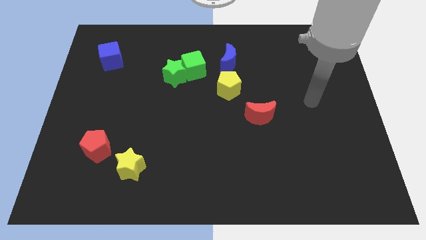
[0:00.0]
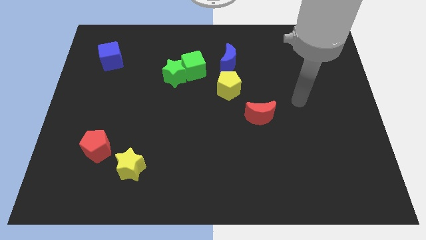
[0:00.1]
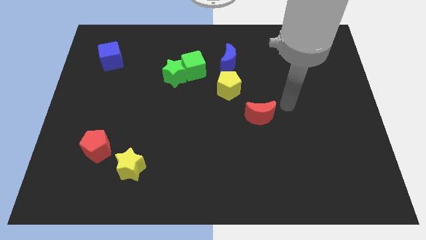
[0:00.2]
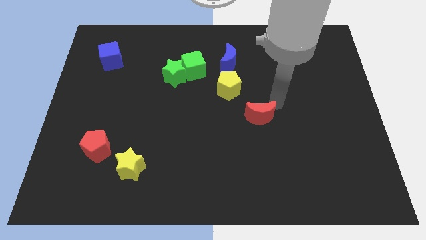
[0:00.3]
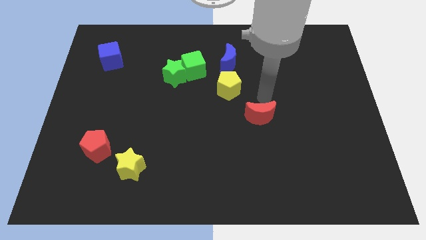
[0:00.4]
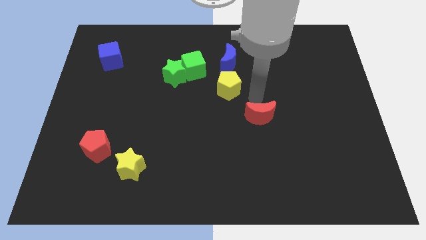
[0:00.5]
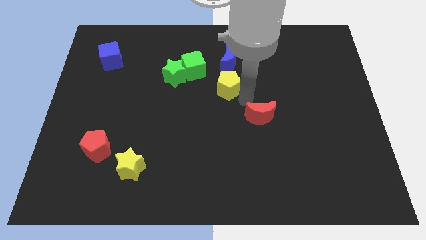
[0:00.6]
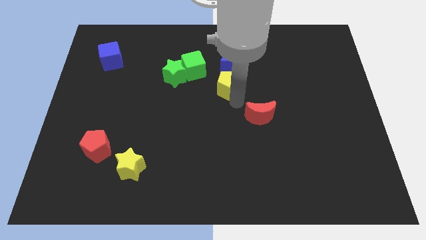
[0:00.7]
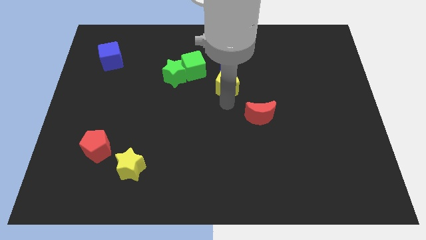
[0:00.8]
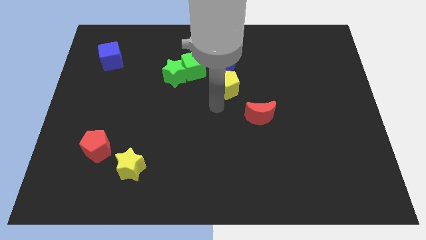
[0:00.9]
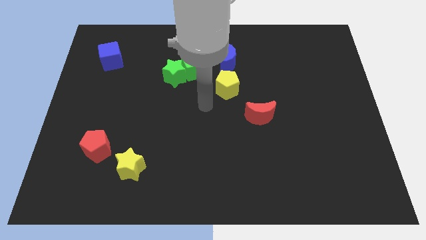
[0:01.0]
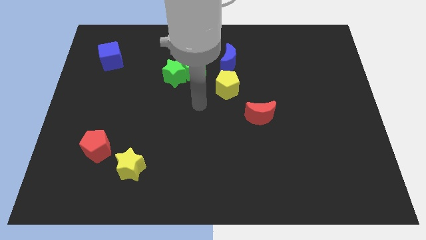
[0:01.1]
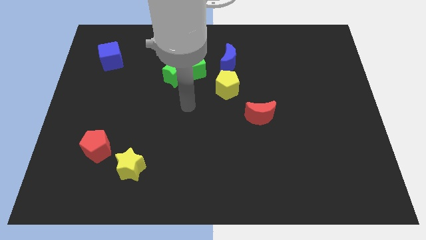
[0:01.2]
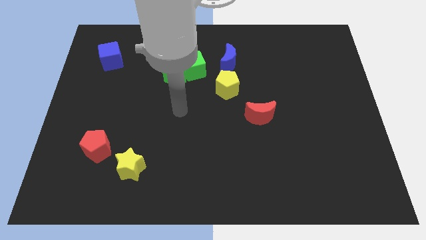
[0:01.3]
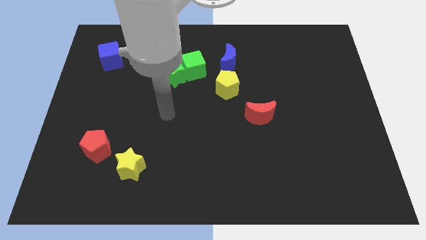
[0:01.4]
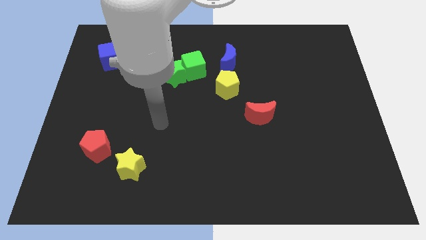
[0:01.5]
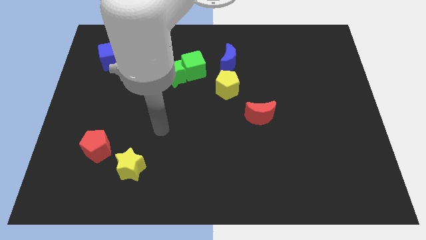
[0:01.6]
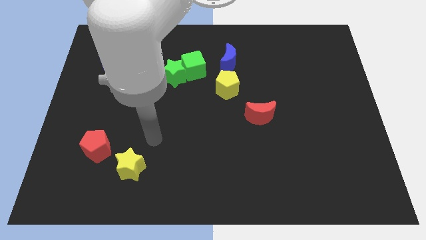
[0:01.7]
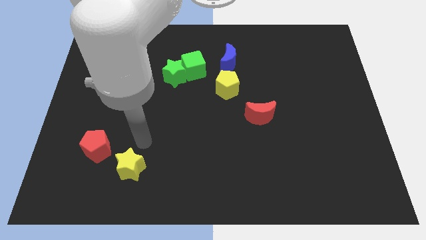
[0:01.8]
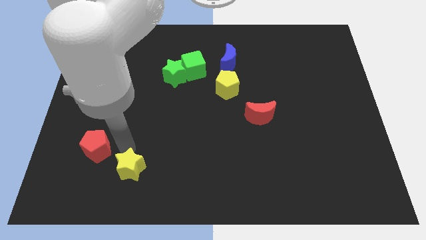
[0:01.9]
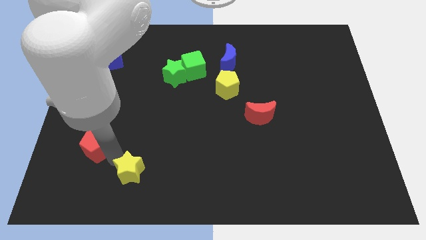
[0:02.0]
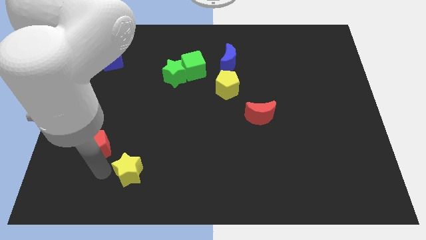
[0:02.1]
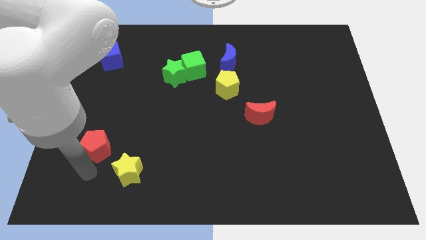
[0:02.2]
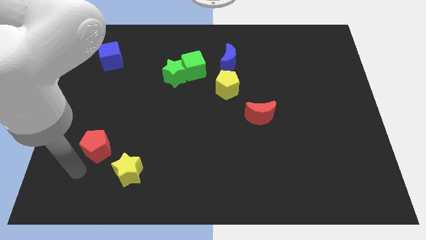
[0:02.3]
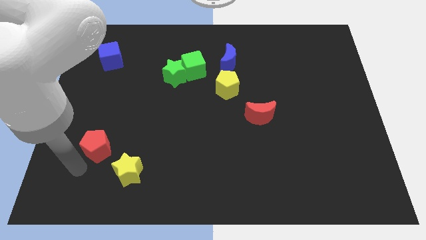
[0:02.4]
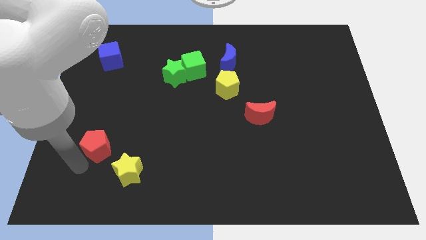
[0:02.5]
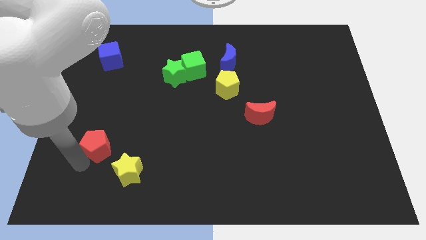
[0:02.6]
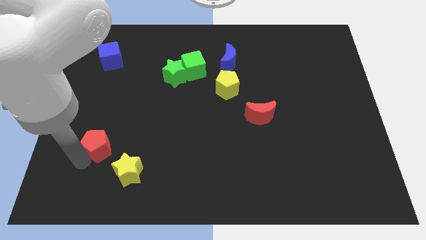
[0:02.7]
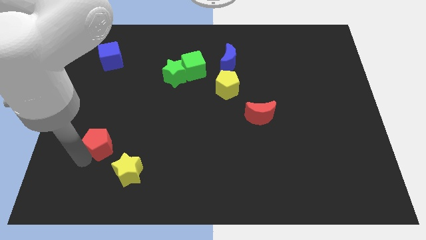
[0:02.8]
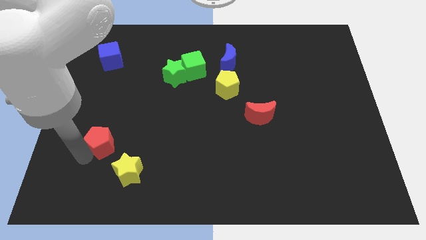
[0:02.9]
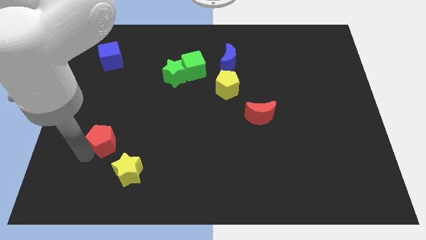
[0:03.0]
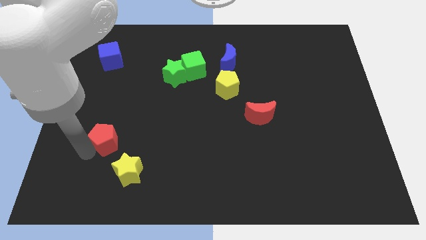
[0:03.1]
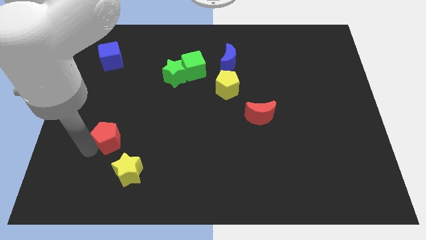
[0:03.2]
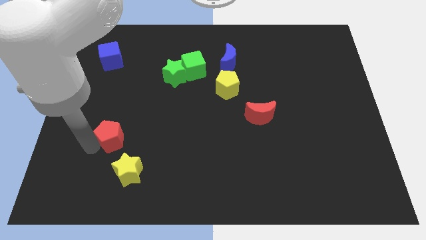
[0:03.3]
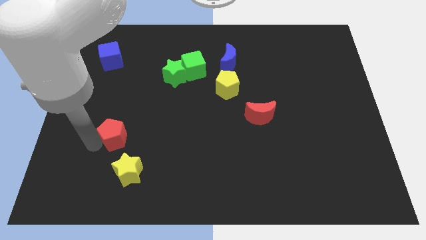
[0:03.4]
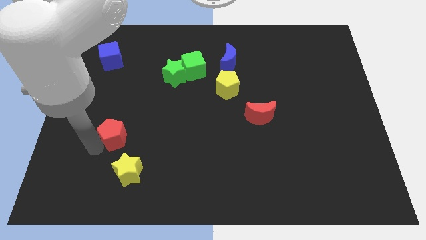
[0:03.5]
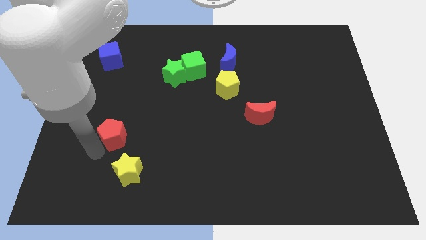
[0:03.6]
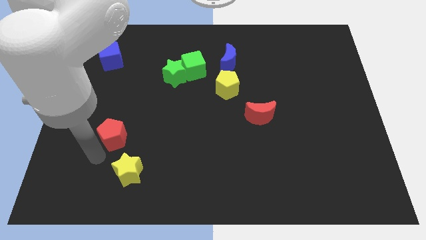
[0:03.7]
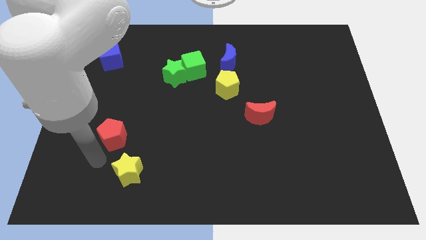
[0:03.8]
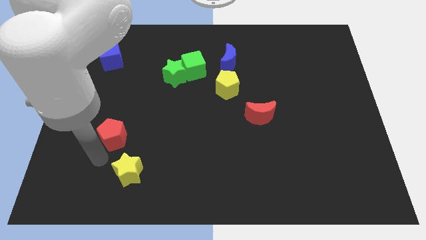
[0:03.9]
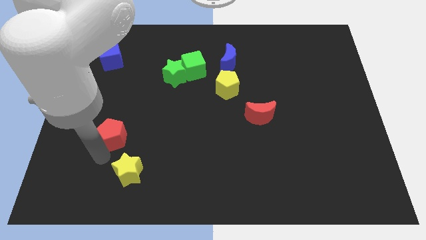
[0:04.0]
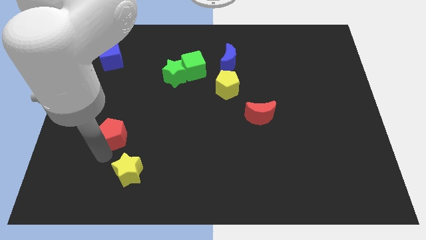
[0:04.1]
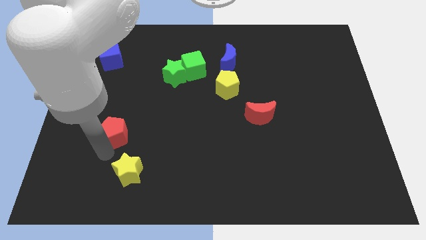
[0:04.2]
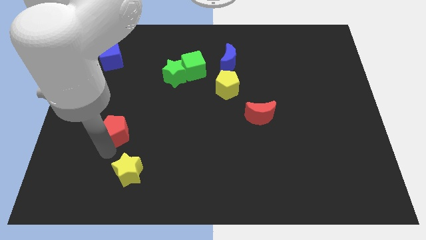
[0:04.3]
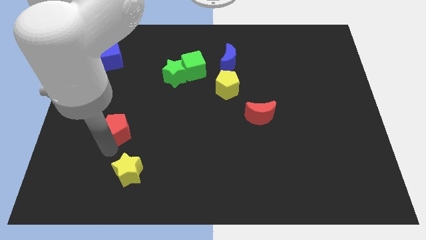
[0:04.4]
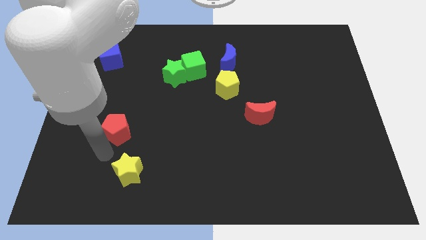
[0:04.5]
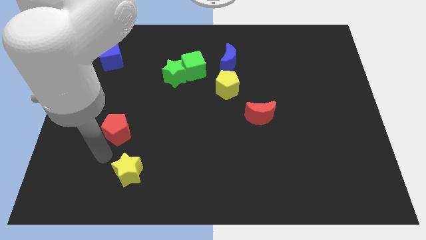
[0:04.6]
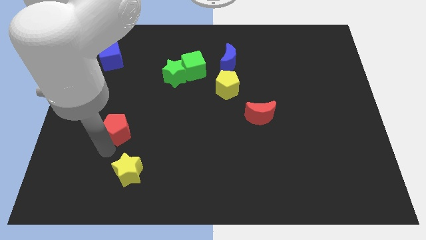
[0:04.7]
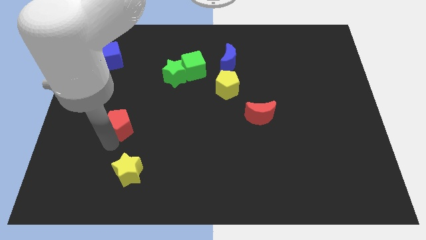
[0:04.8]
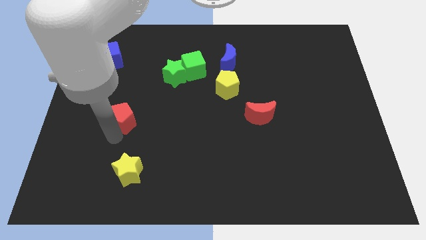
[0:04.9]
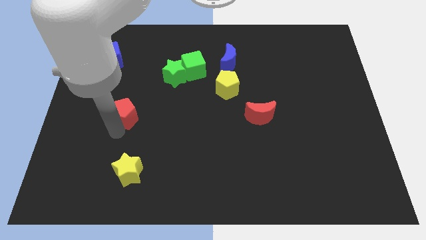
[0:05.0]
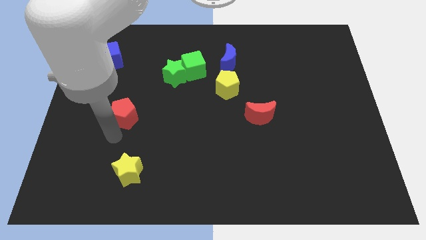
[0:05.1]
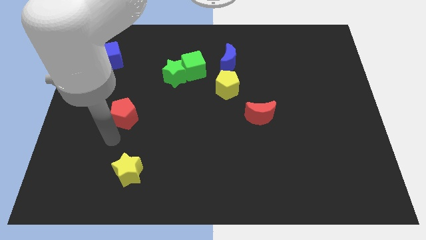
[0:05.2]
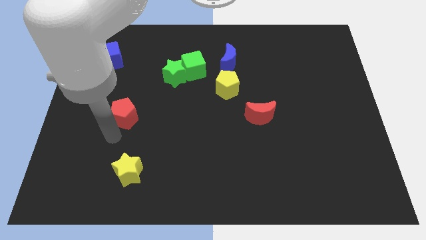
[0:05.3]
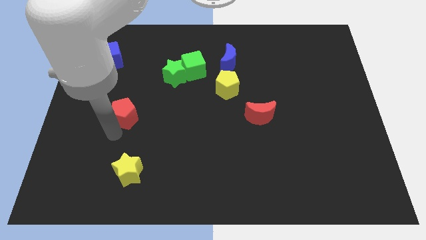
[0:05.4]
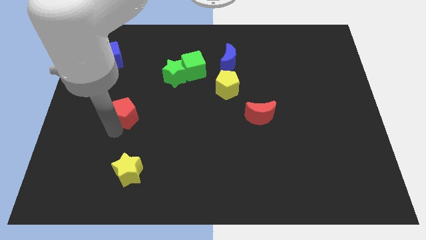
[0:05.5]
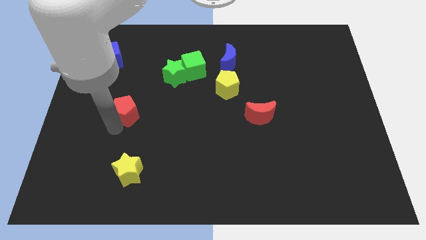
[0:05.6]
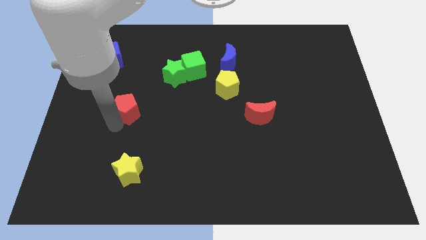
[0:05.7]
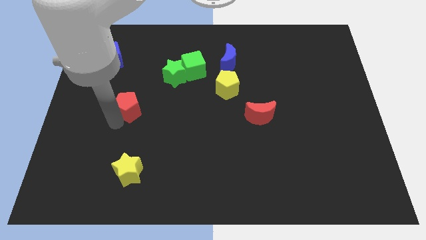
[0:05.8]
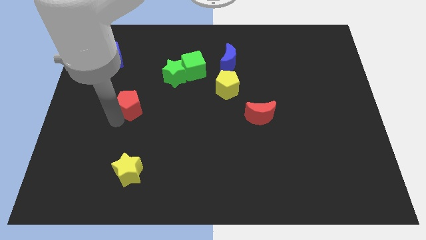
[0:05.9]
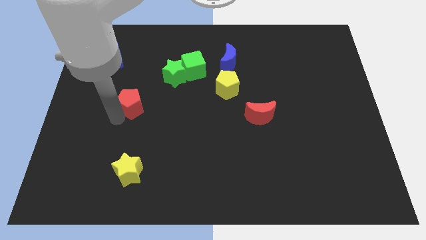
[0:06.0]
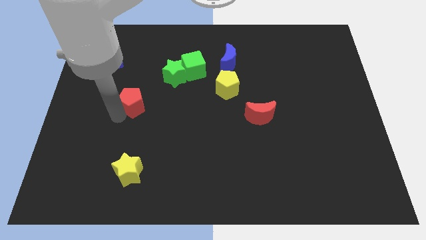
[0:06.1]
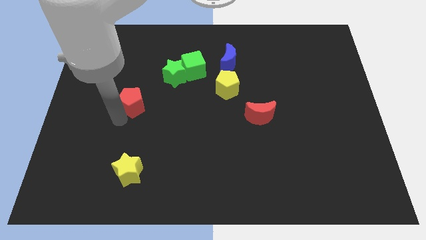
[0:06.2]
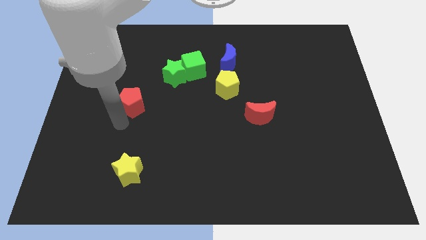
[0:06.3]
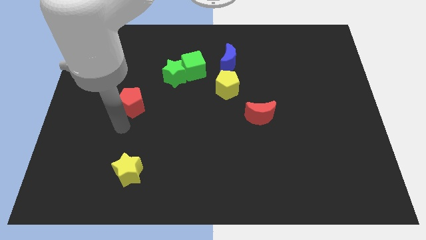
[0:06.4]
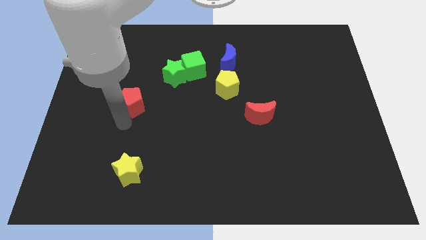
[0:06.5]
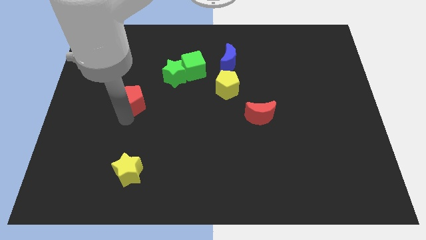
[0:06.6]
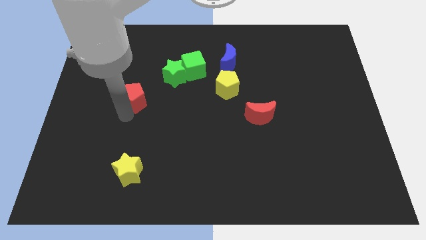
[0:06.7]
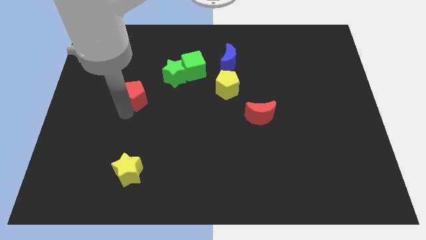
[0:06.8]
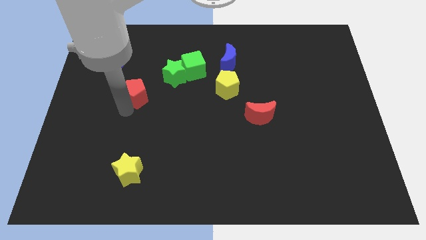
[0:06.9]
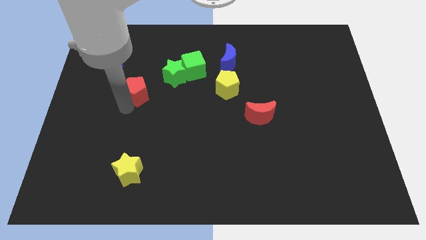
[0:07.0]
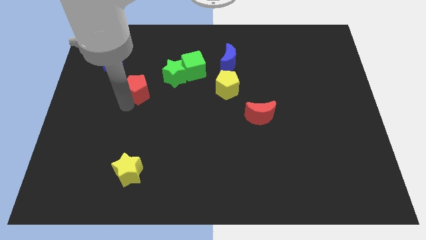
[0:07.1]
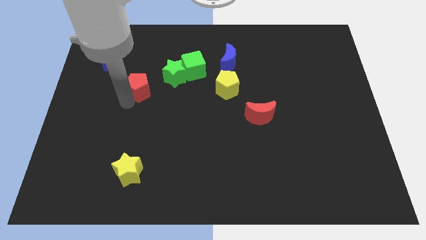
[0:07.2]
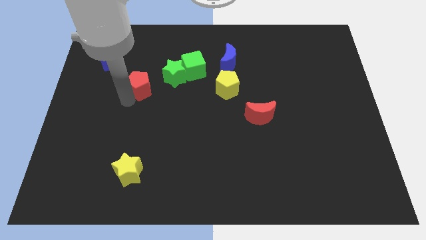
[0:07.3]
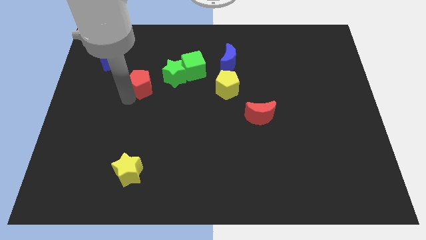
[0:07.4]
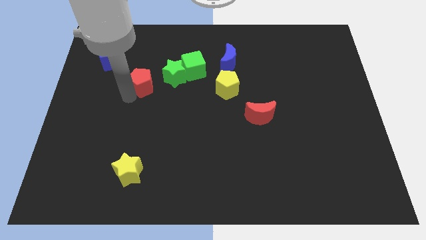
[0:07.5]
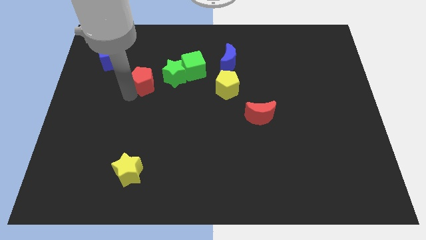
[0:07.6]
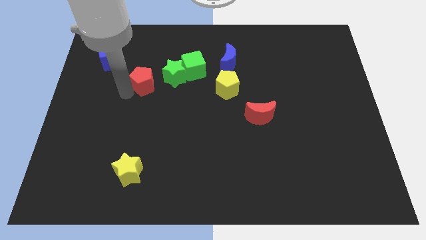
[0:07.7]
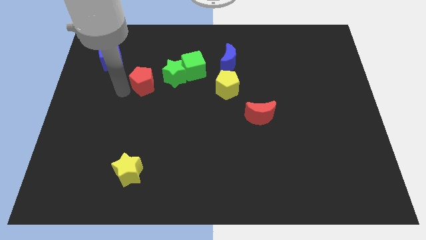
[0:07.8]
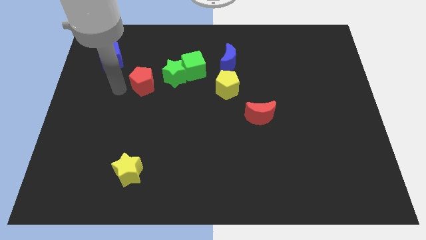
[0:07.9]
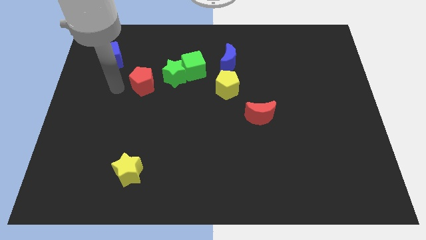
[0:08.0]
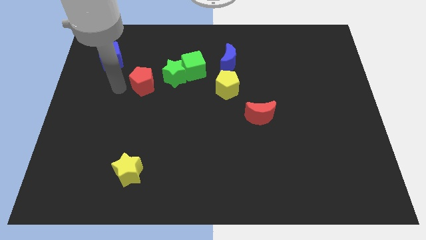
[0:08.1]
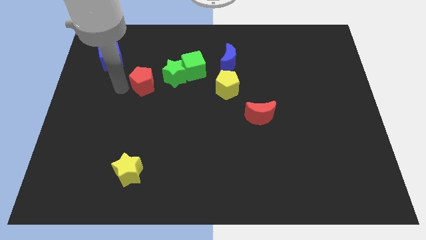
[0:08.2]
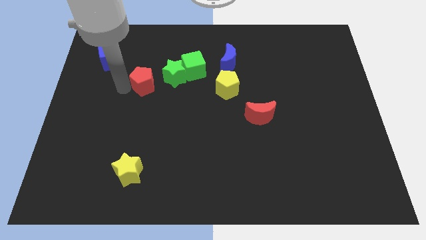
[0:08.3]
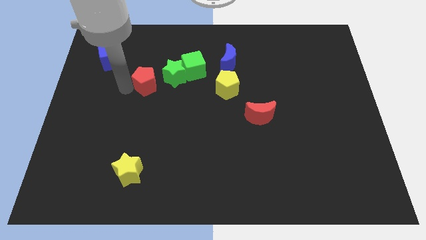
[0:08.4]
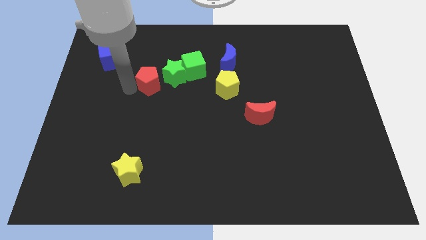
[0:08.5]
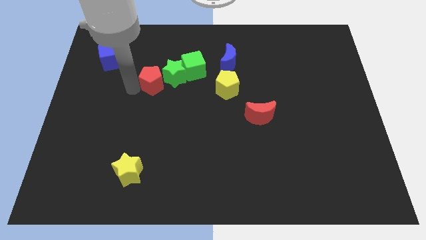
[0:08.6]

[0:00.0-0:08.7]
move the red pentagon close to the green star
